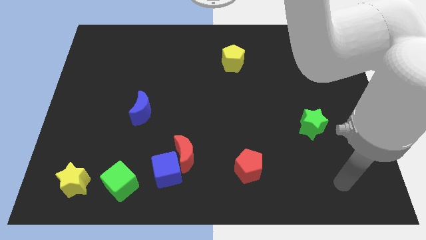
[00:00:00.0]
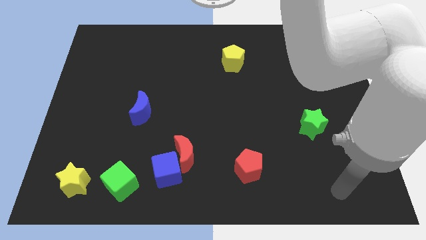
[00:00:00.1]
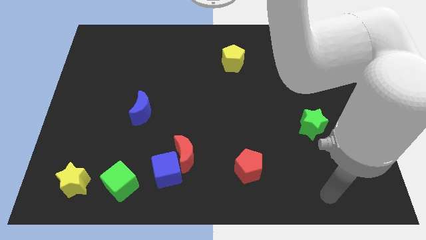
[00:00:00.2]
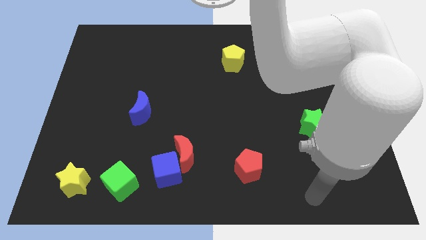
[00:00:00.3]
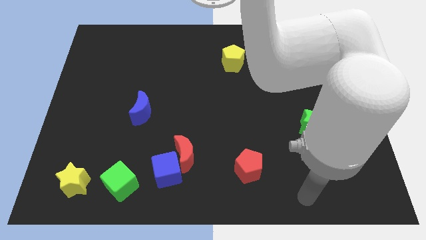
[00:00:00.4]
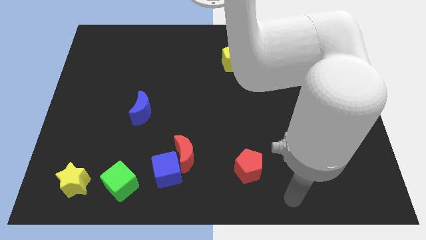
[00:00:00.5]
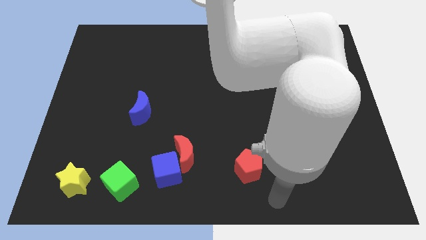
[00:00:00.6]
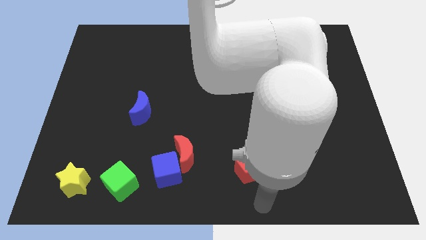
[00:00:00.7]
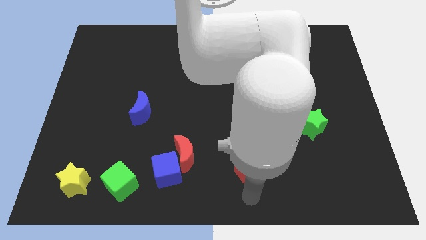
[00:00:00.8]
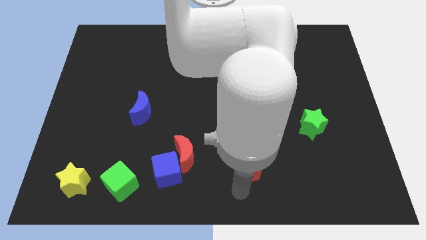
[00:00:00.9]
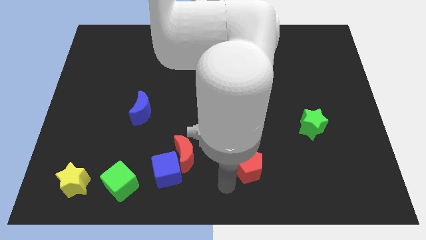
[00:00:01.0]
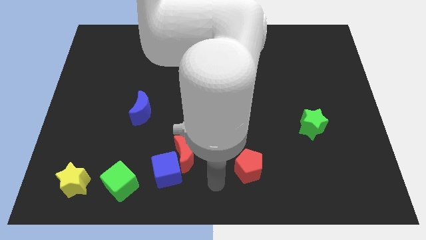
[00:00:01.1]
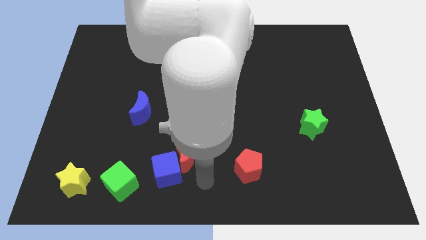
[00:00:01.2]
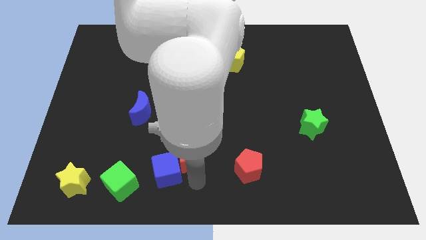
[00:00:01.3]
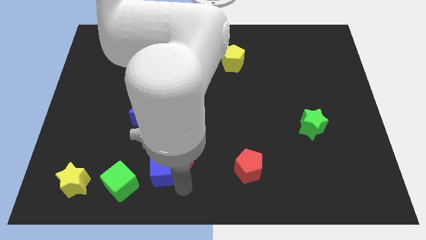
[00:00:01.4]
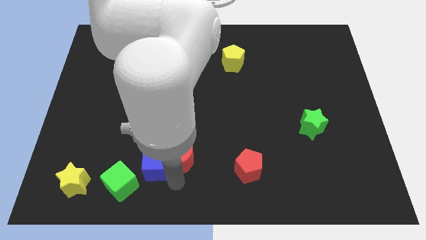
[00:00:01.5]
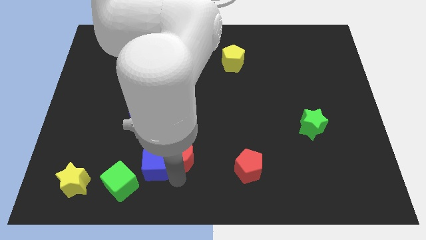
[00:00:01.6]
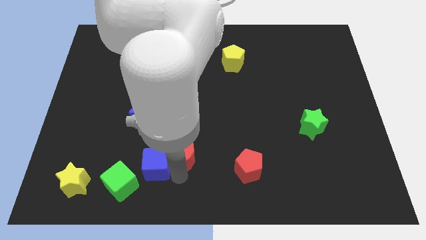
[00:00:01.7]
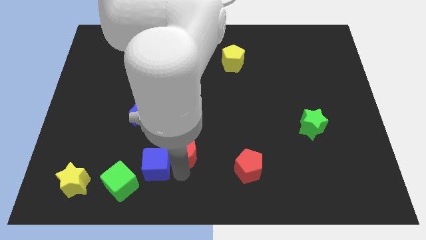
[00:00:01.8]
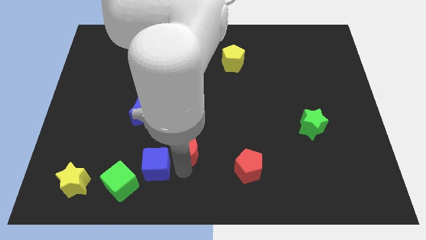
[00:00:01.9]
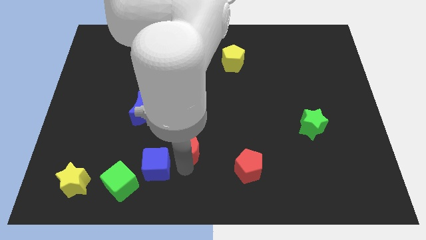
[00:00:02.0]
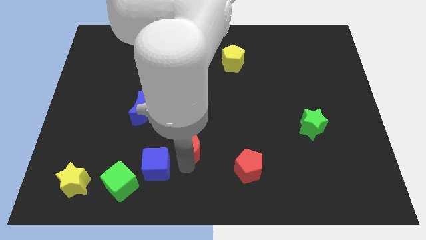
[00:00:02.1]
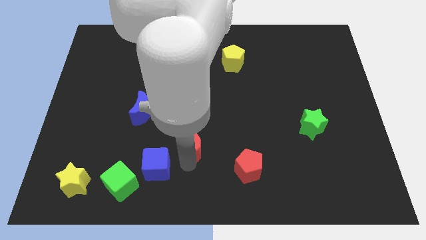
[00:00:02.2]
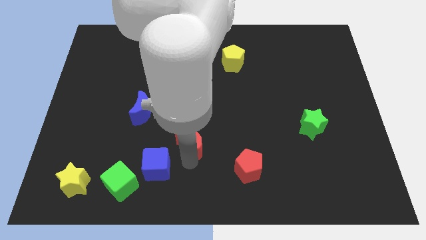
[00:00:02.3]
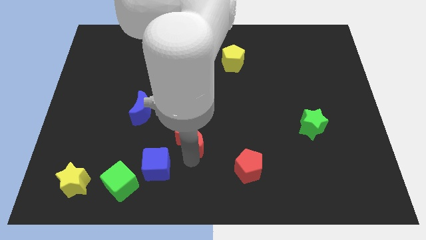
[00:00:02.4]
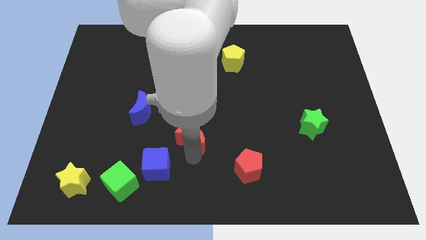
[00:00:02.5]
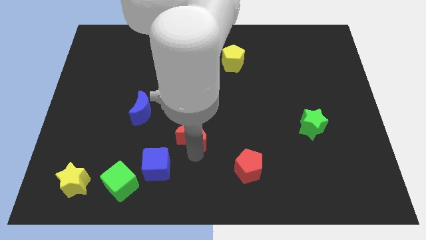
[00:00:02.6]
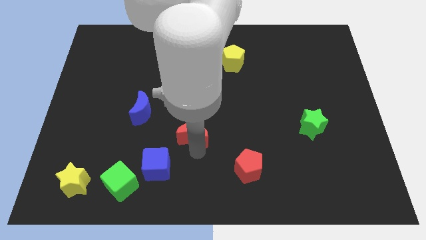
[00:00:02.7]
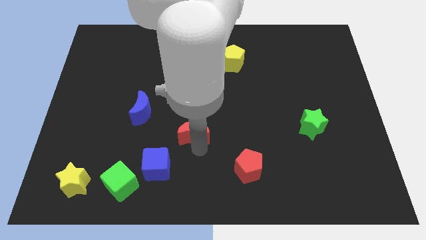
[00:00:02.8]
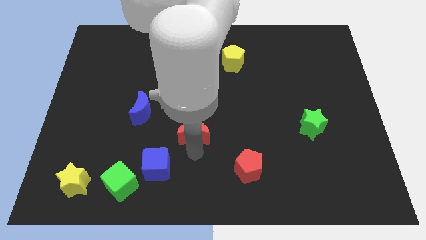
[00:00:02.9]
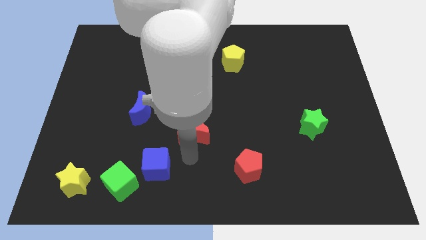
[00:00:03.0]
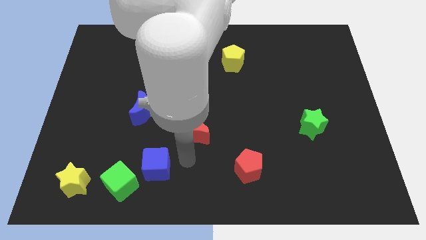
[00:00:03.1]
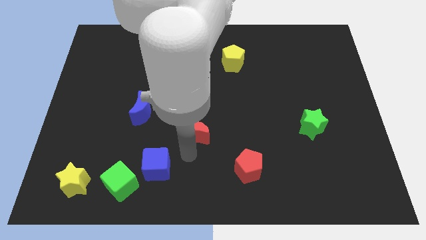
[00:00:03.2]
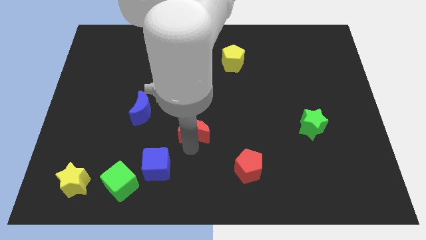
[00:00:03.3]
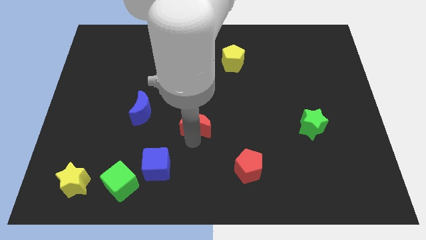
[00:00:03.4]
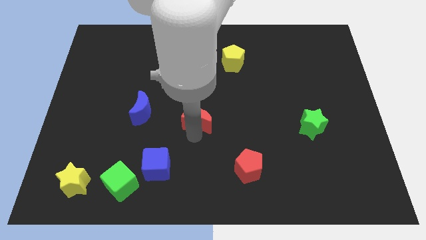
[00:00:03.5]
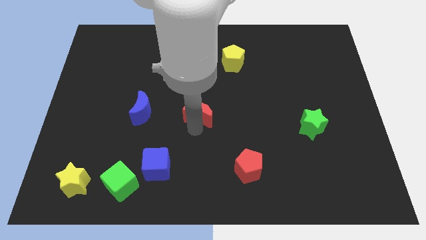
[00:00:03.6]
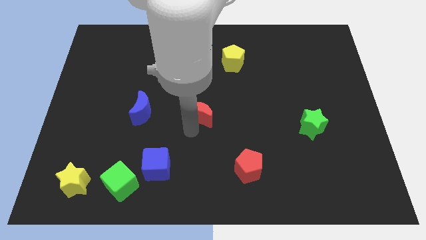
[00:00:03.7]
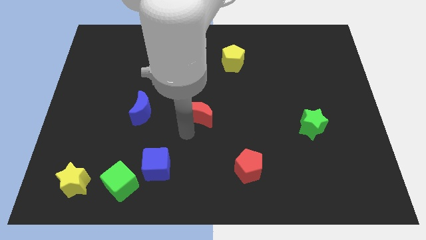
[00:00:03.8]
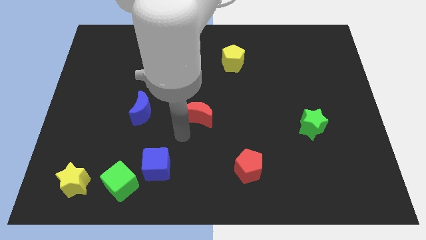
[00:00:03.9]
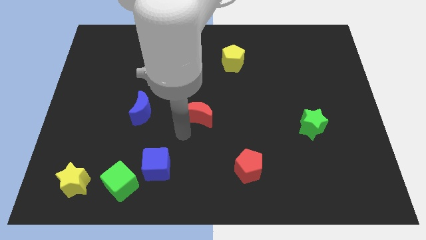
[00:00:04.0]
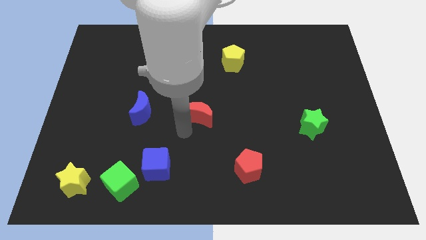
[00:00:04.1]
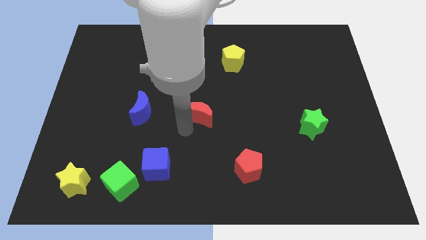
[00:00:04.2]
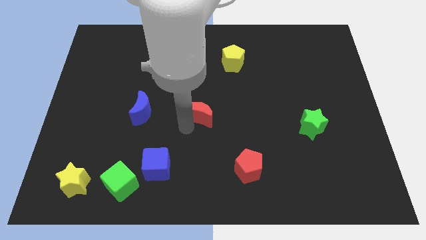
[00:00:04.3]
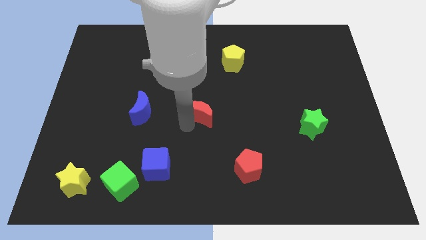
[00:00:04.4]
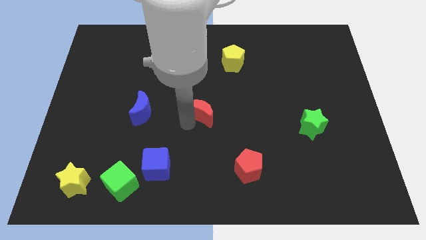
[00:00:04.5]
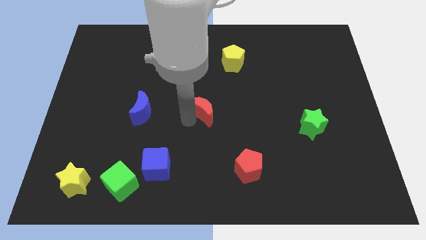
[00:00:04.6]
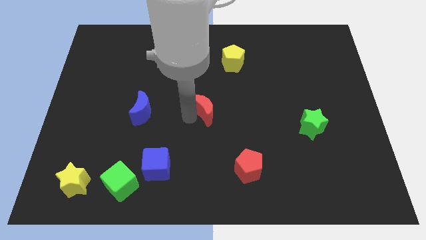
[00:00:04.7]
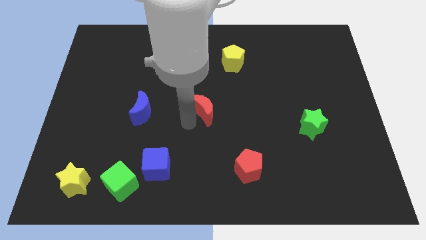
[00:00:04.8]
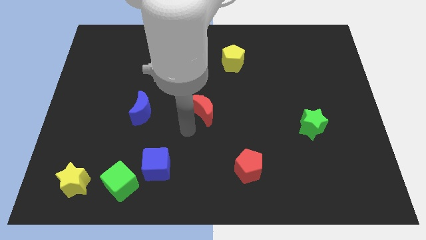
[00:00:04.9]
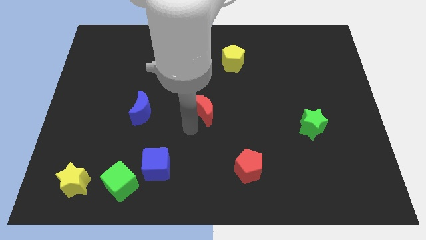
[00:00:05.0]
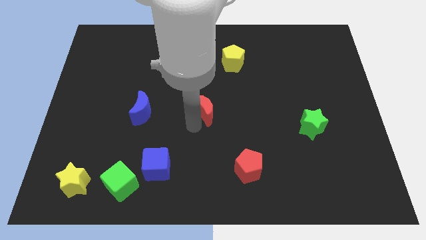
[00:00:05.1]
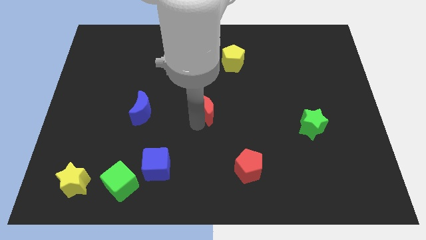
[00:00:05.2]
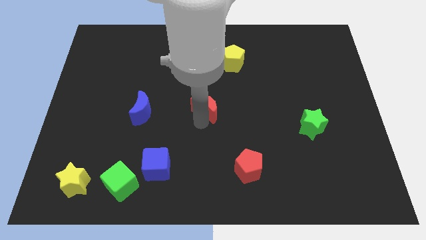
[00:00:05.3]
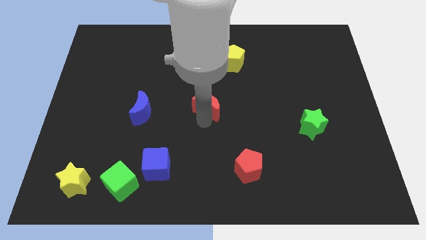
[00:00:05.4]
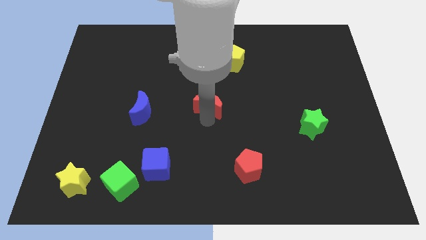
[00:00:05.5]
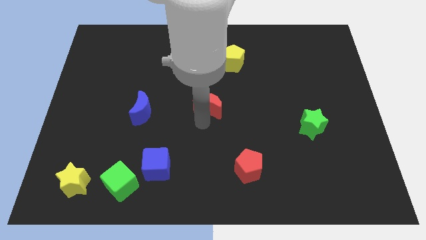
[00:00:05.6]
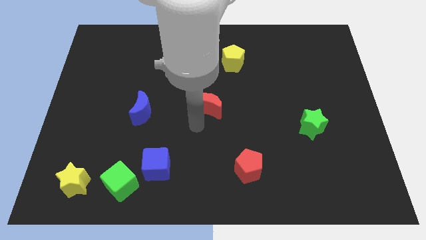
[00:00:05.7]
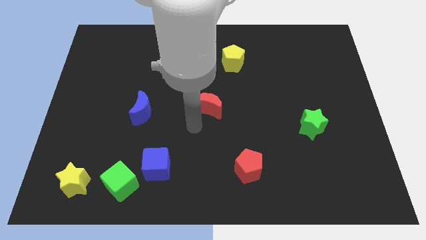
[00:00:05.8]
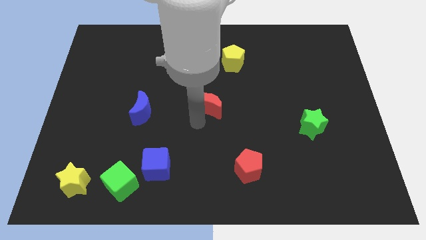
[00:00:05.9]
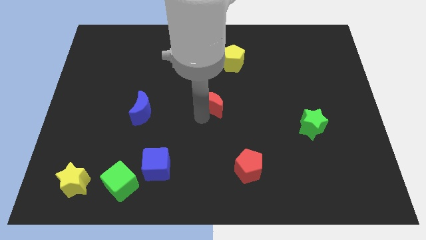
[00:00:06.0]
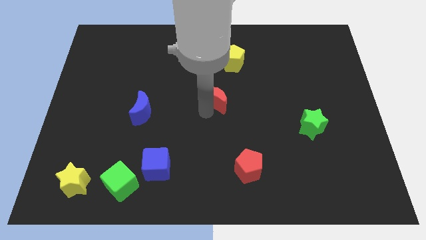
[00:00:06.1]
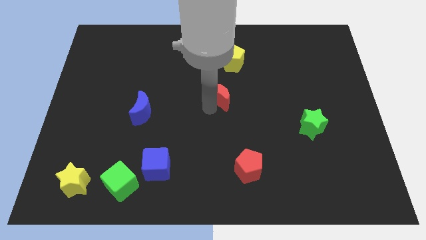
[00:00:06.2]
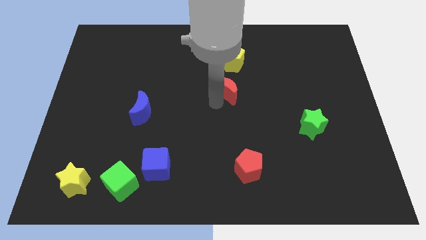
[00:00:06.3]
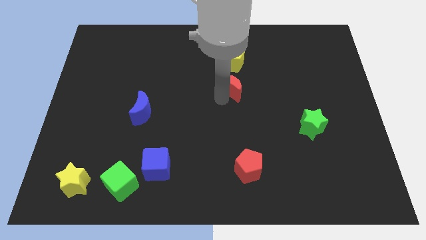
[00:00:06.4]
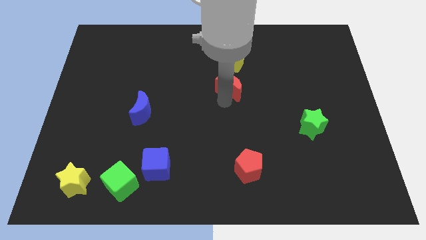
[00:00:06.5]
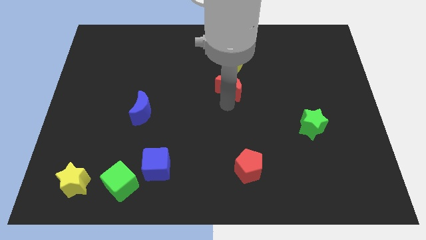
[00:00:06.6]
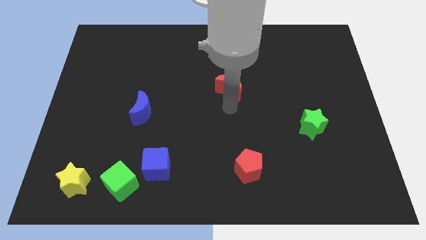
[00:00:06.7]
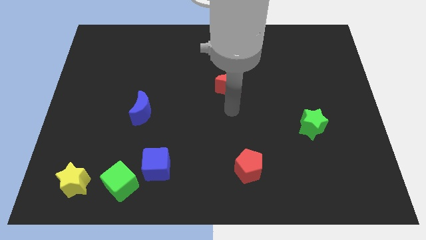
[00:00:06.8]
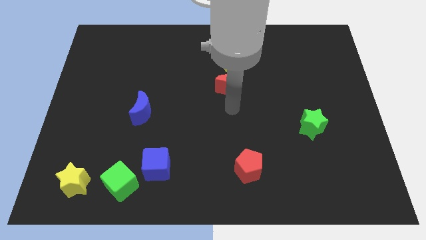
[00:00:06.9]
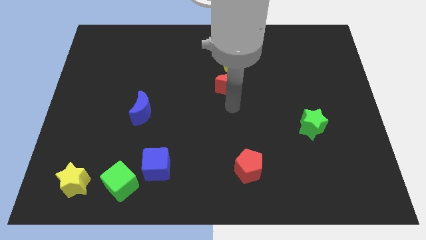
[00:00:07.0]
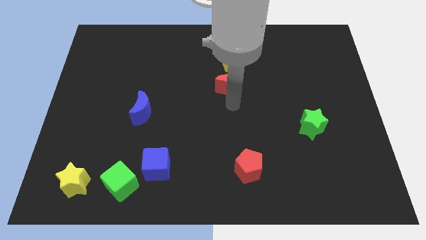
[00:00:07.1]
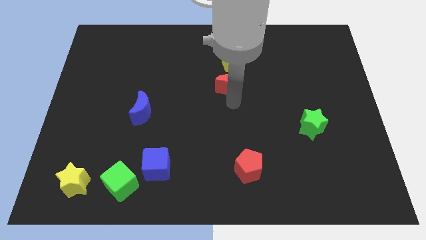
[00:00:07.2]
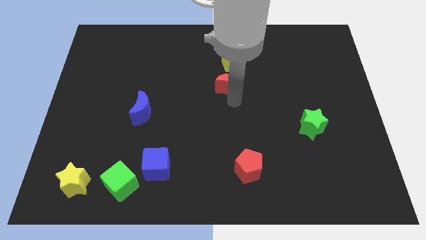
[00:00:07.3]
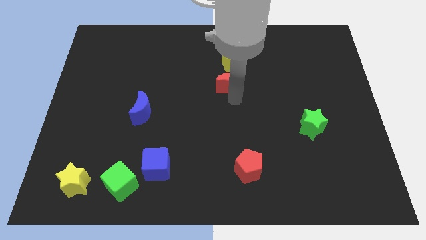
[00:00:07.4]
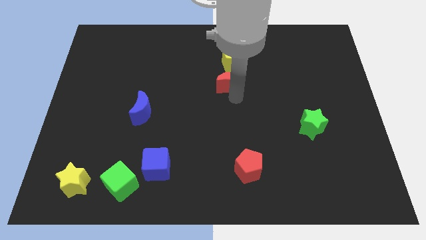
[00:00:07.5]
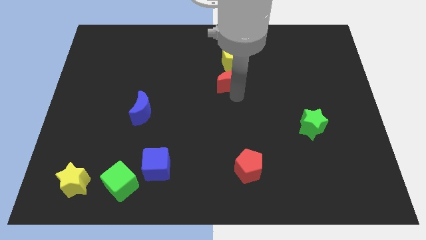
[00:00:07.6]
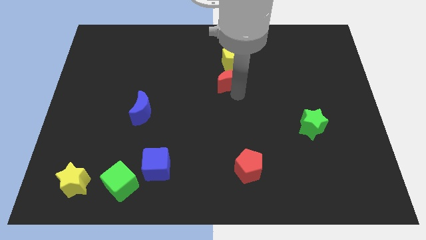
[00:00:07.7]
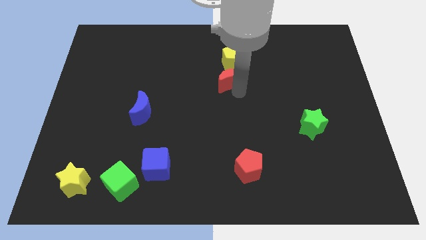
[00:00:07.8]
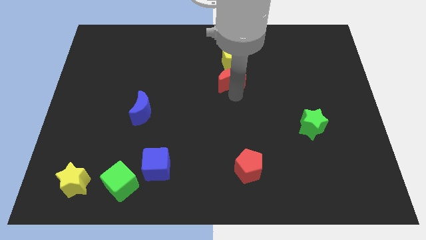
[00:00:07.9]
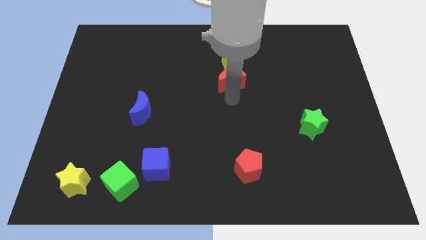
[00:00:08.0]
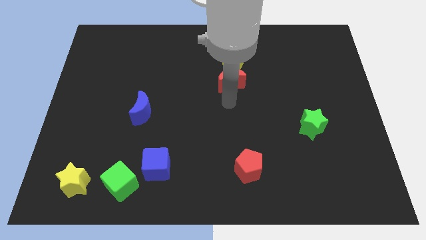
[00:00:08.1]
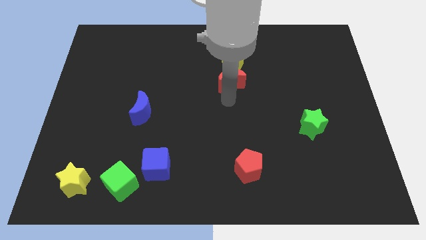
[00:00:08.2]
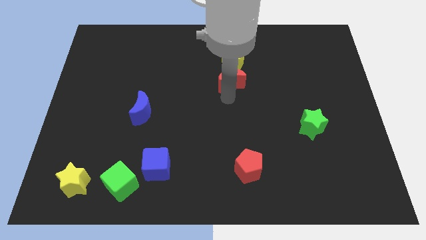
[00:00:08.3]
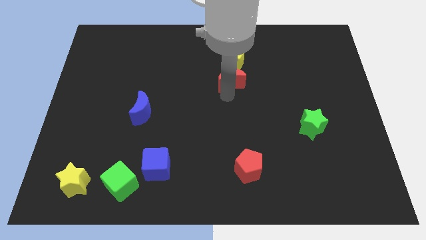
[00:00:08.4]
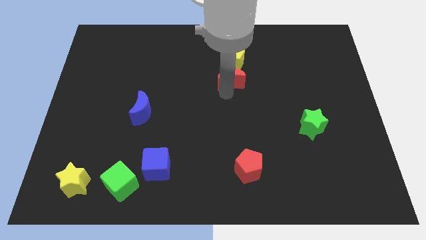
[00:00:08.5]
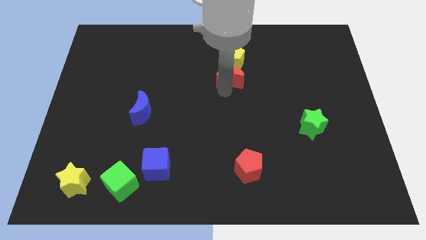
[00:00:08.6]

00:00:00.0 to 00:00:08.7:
slide the red moon towards the yellow pentagon
